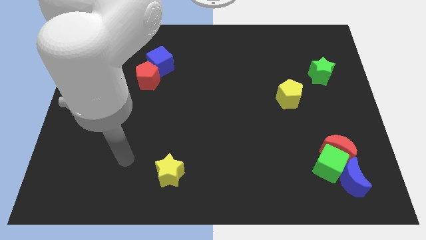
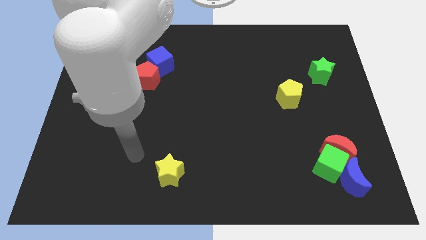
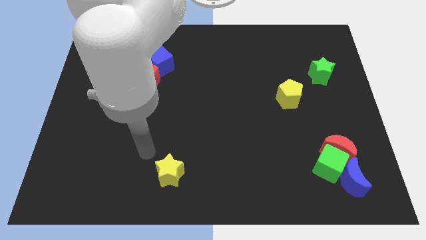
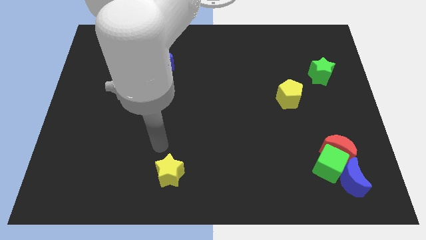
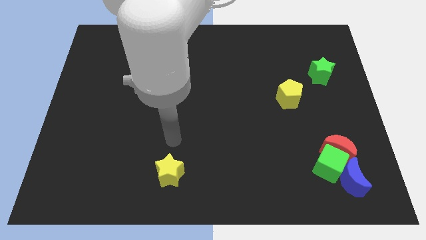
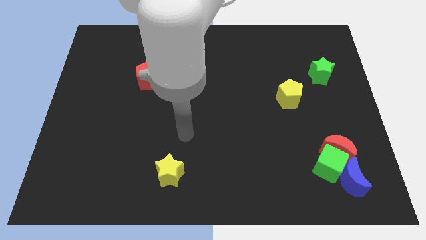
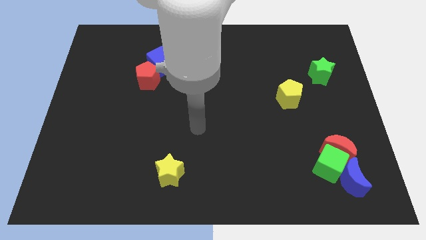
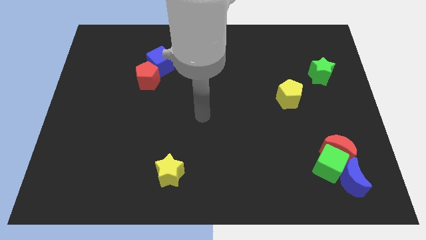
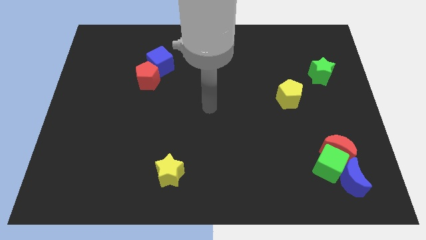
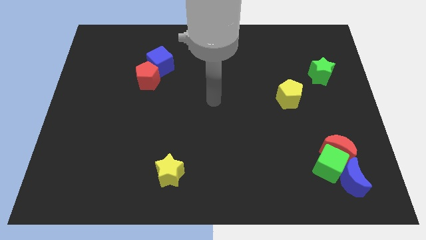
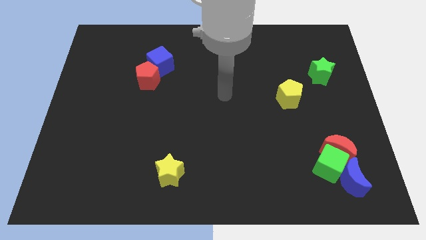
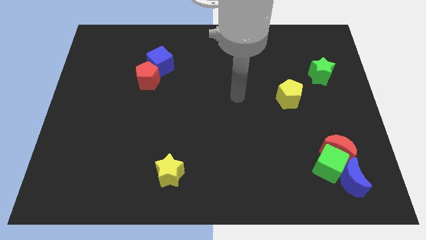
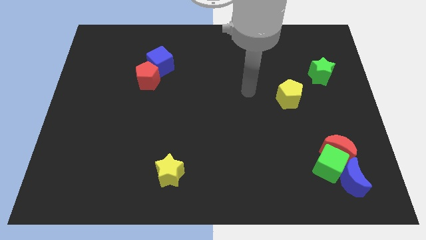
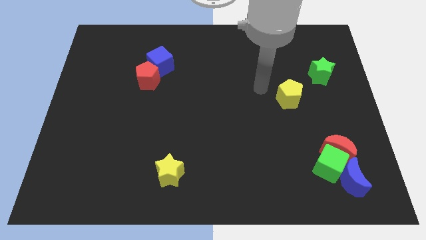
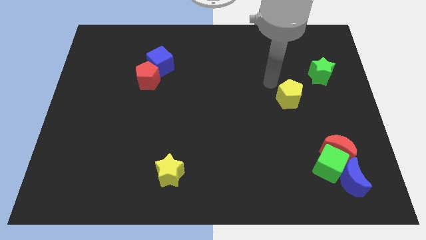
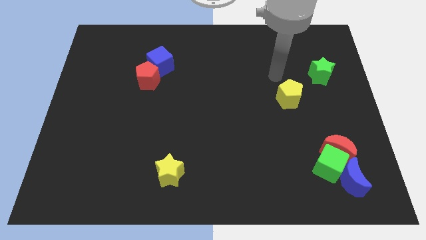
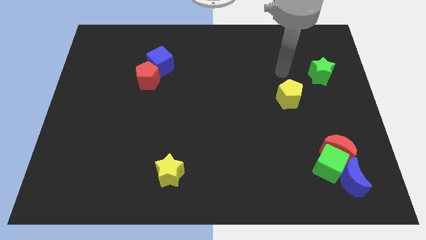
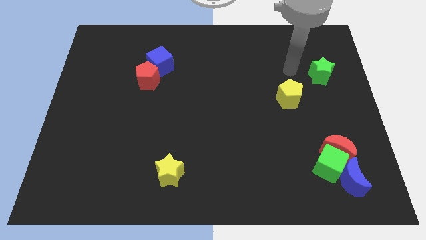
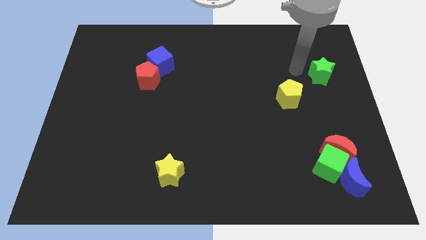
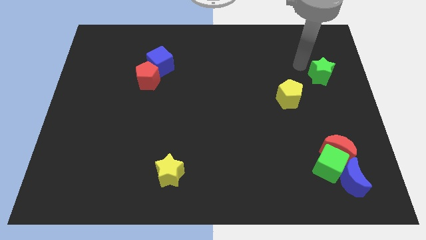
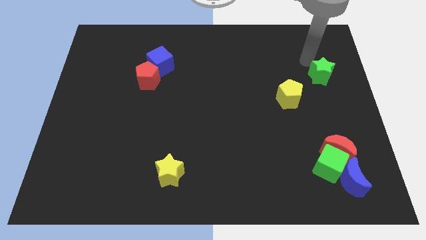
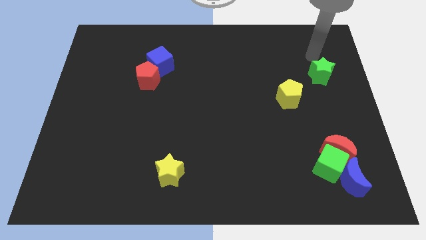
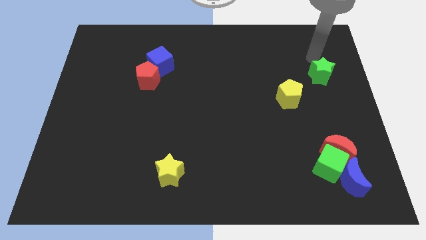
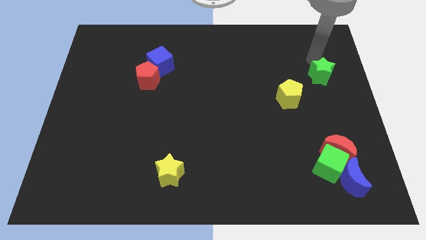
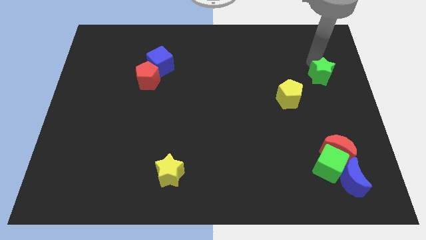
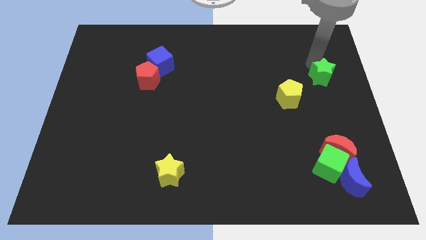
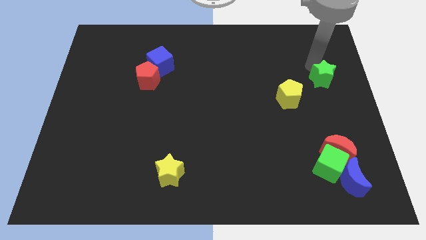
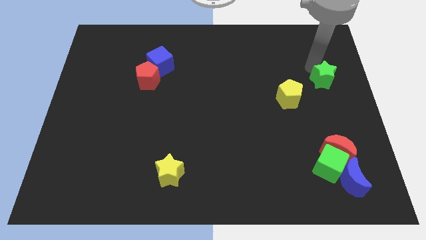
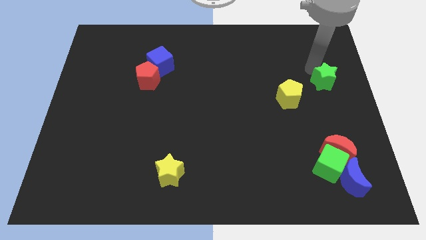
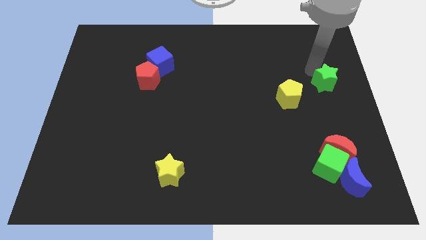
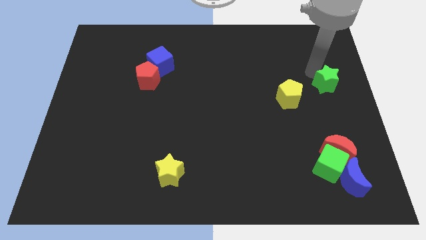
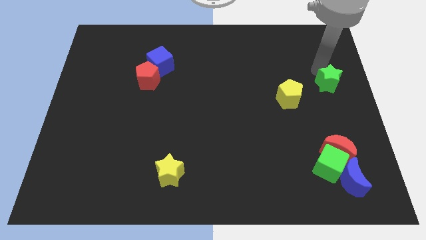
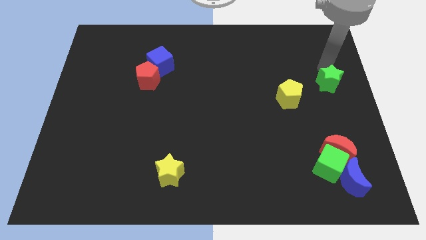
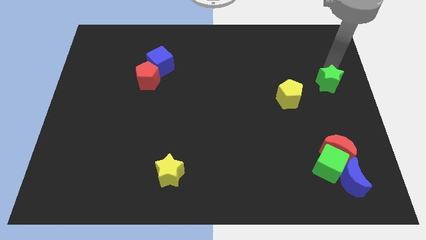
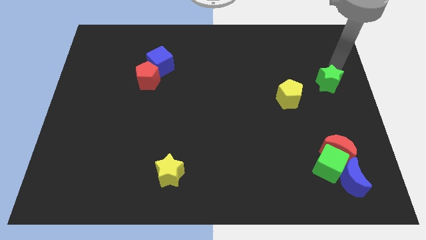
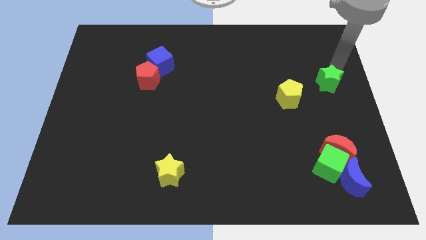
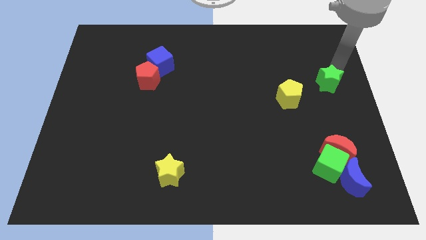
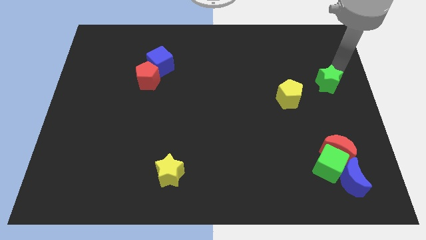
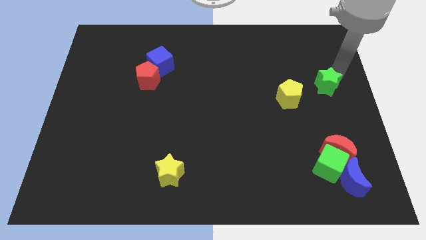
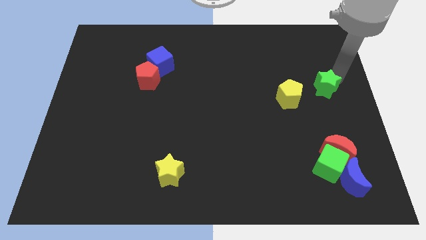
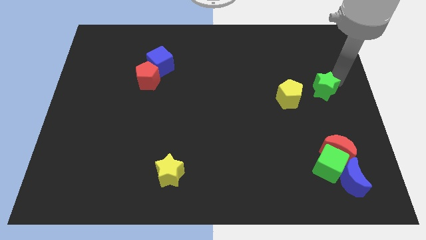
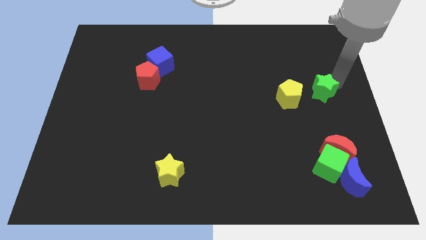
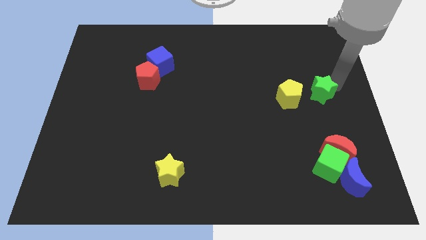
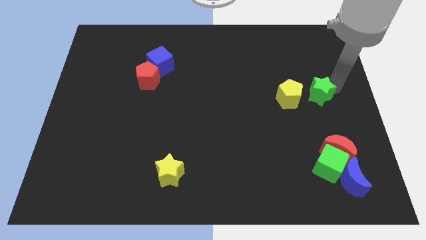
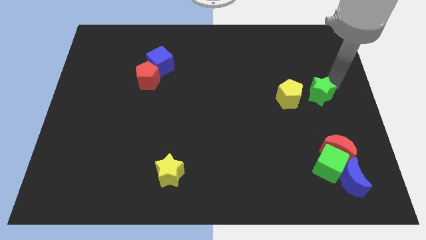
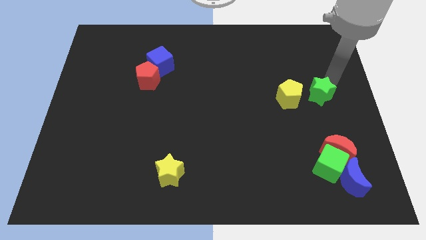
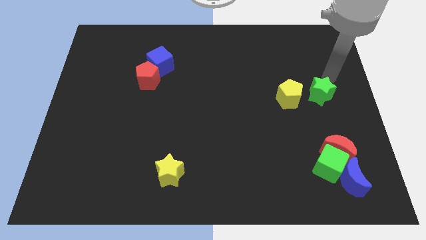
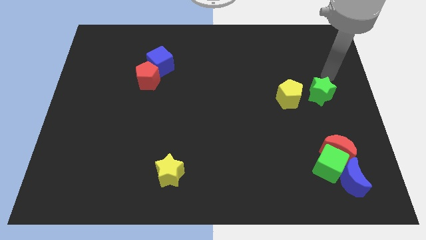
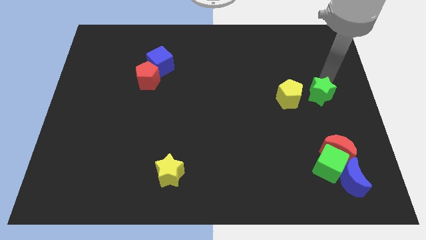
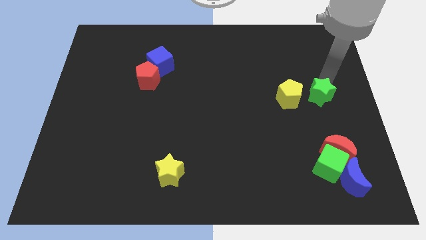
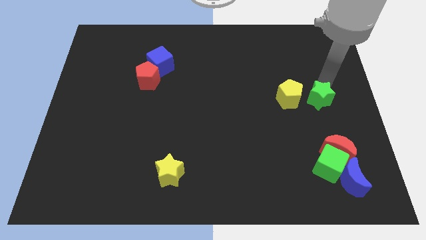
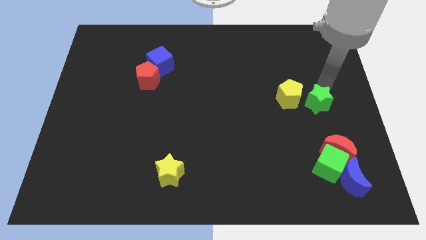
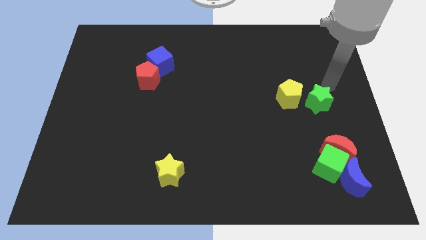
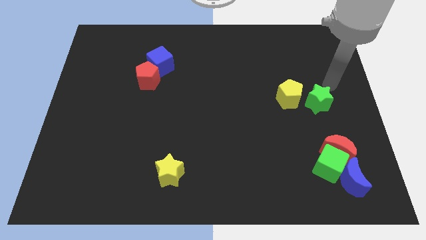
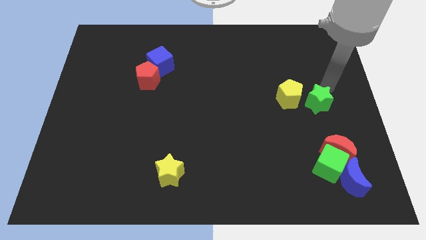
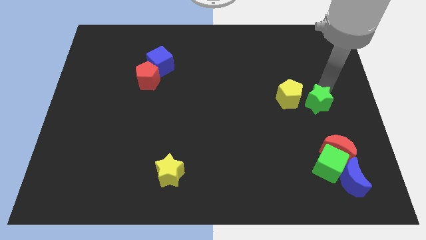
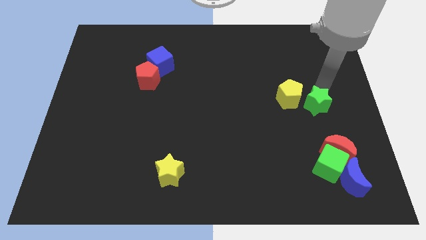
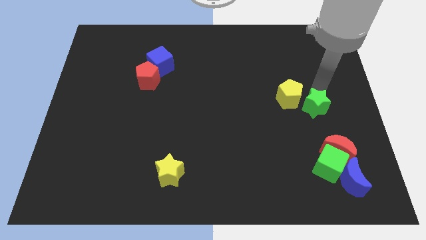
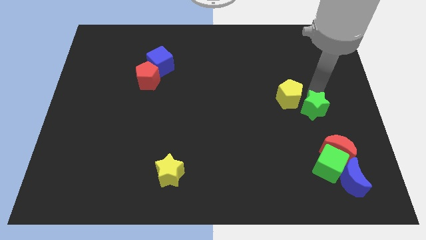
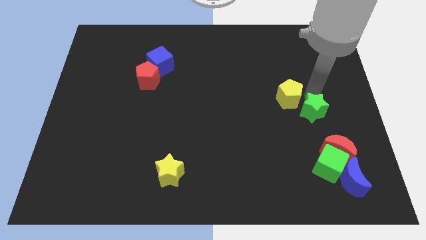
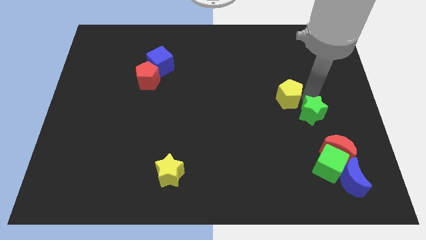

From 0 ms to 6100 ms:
push the green star below the yellow pentagon

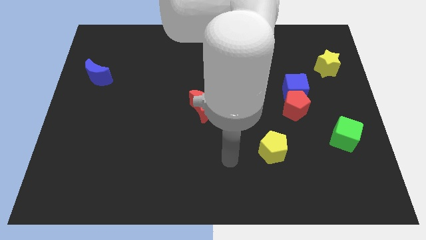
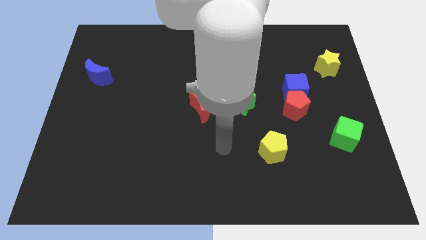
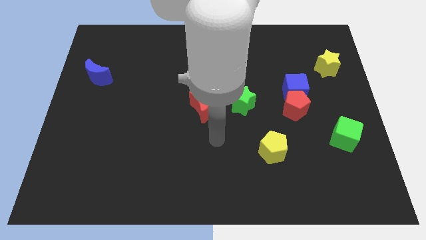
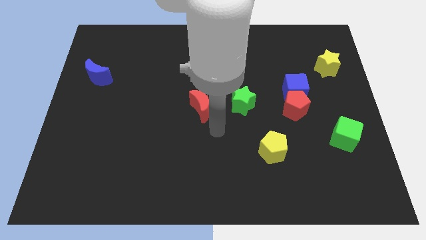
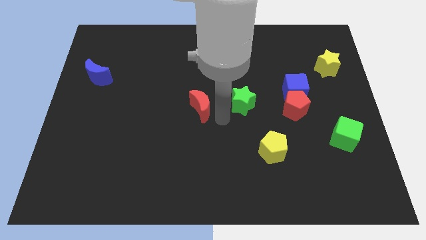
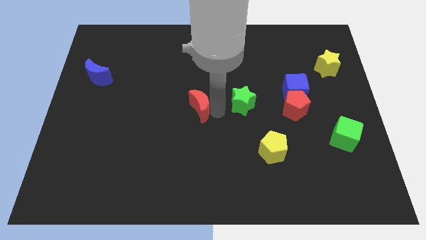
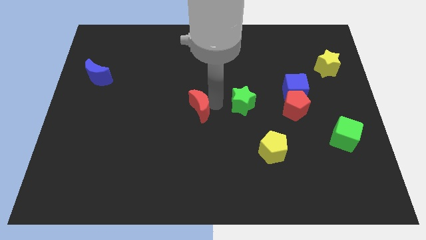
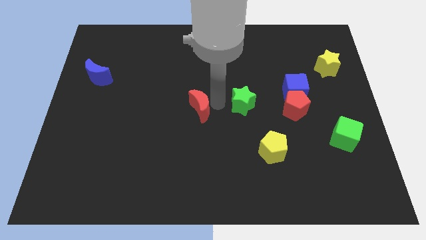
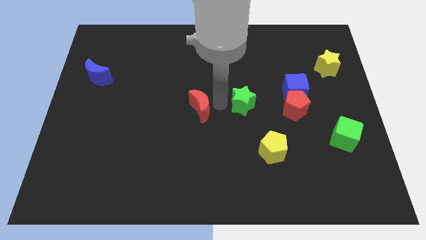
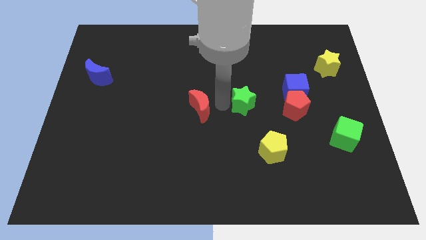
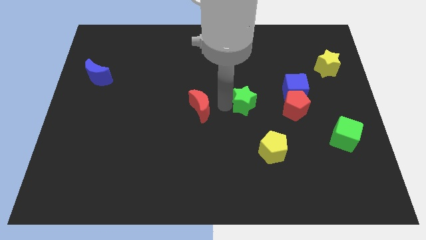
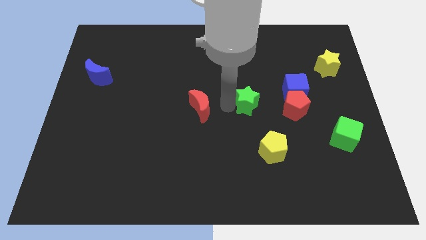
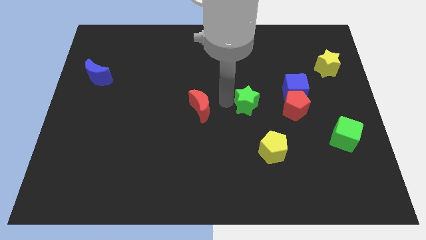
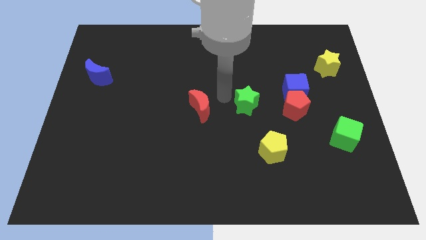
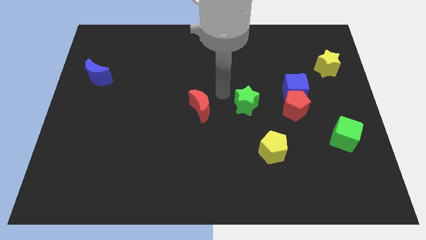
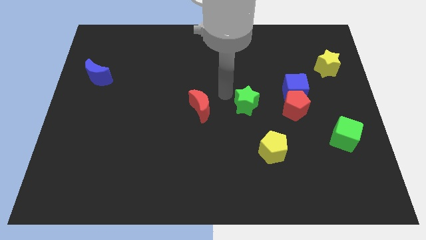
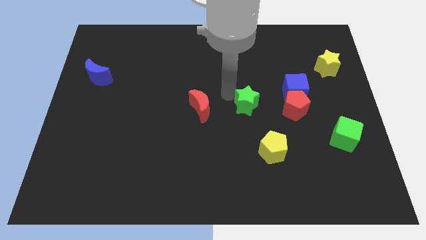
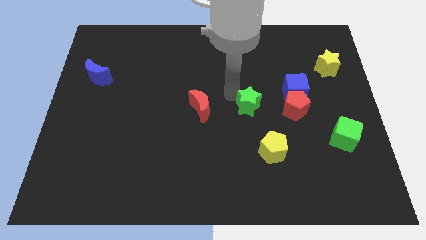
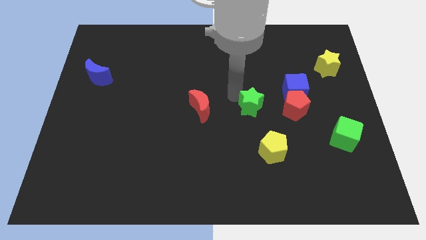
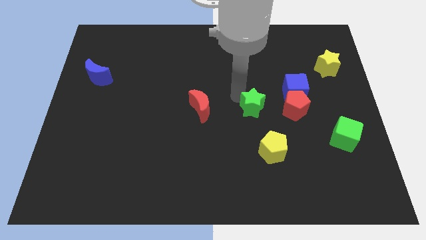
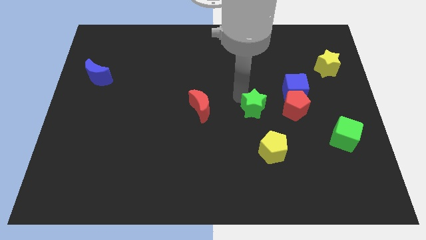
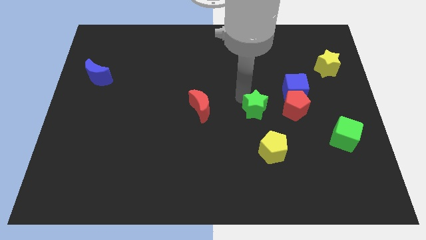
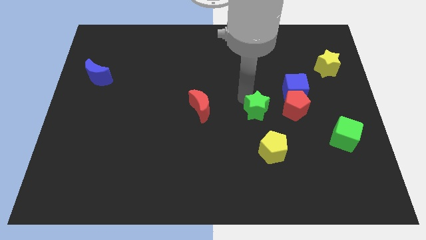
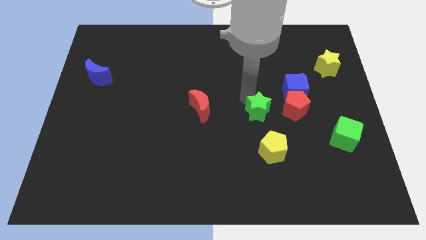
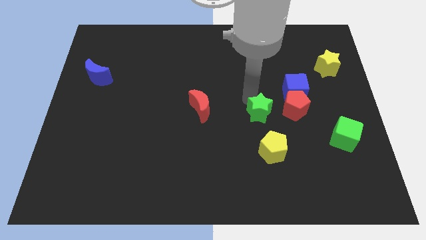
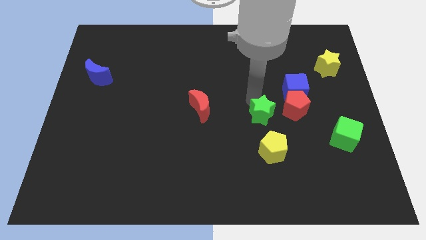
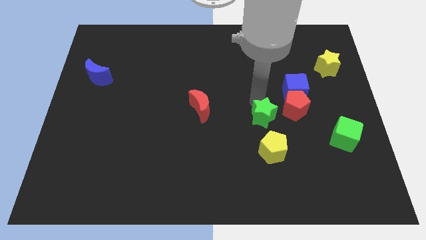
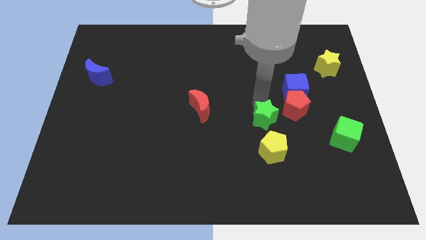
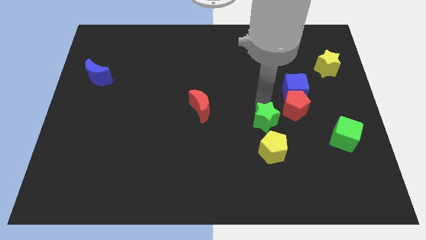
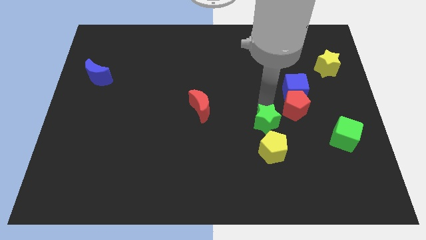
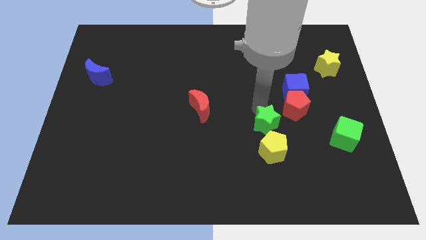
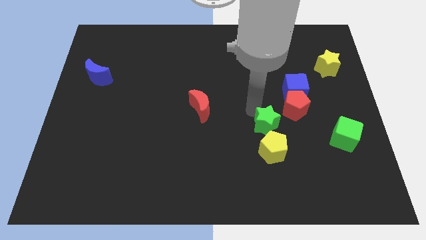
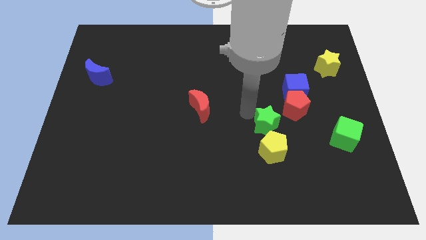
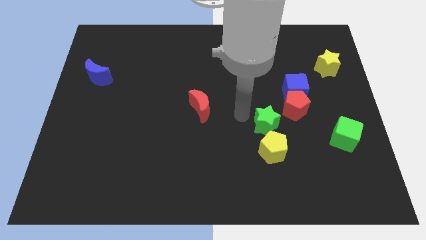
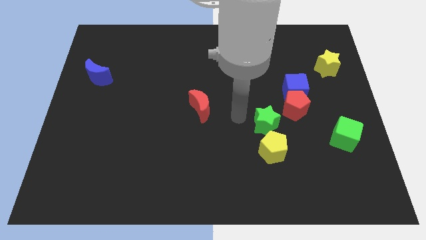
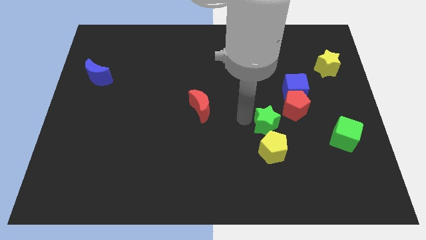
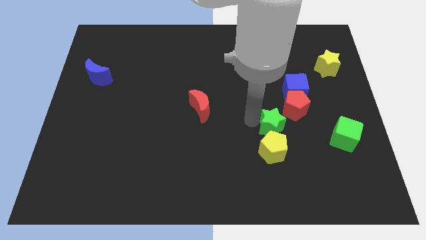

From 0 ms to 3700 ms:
slide the green star to the top right side of the yellow pentagon
